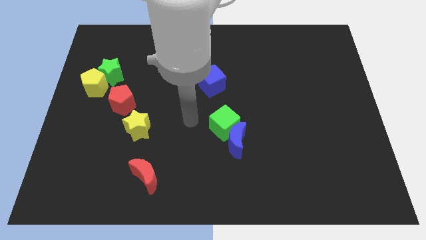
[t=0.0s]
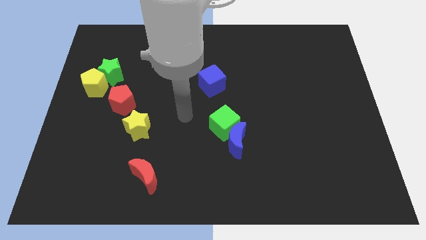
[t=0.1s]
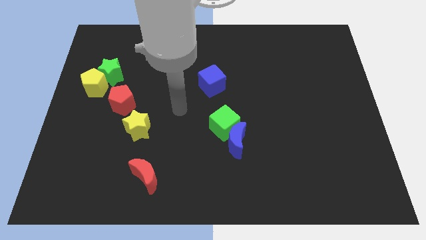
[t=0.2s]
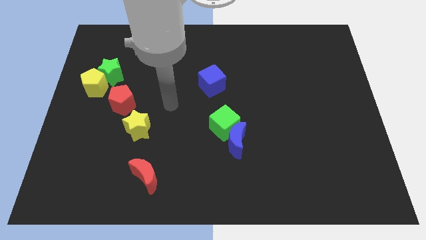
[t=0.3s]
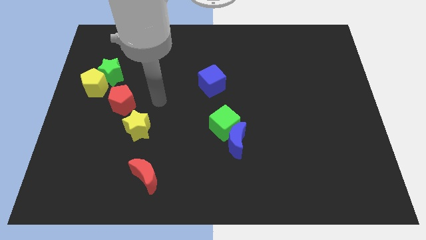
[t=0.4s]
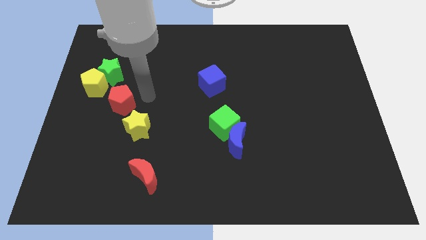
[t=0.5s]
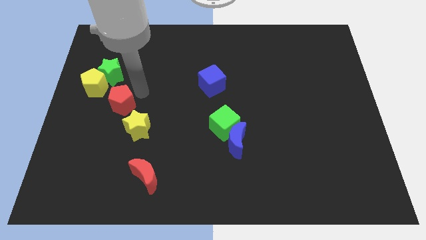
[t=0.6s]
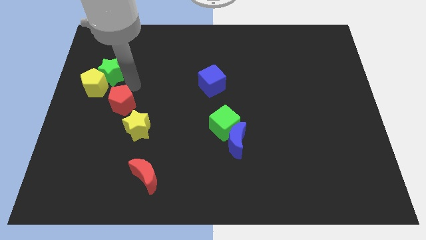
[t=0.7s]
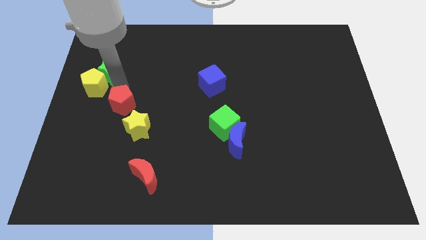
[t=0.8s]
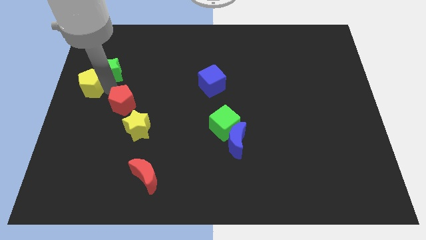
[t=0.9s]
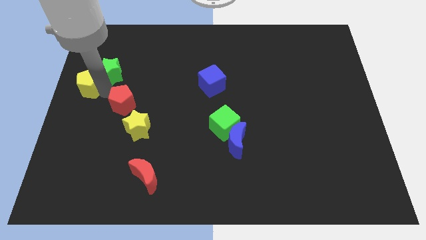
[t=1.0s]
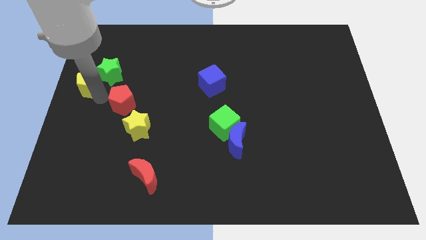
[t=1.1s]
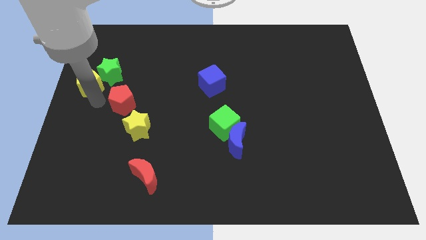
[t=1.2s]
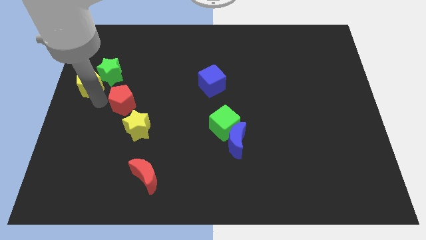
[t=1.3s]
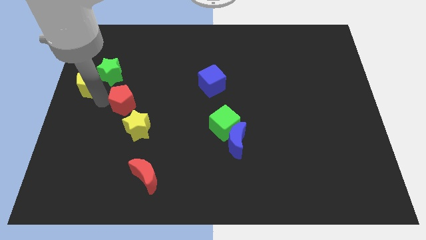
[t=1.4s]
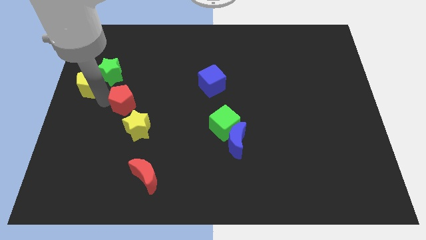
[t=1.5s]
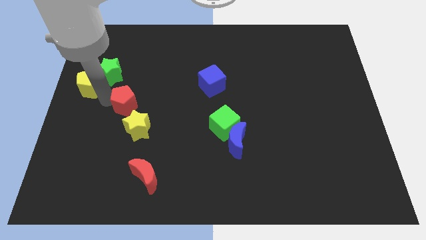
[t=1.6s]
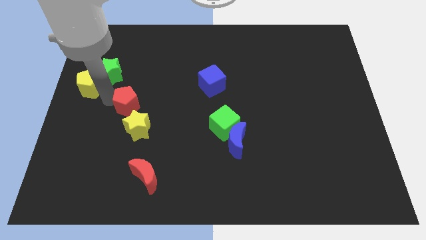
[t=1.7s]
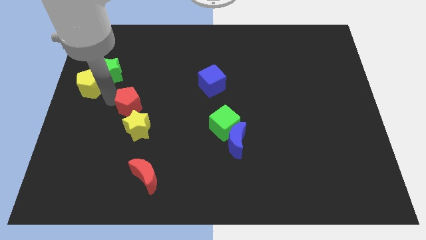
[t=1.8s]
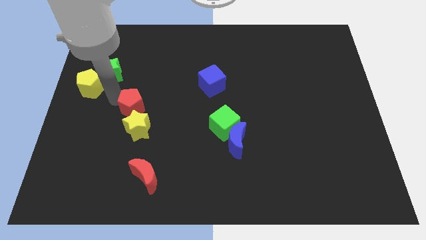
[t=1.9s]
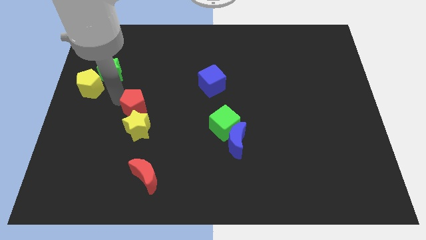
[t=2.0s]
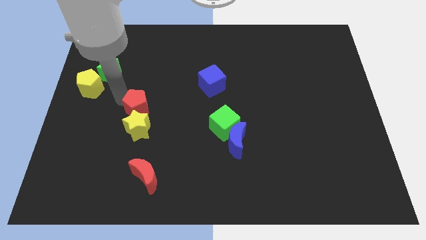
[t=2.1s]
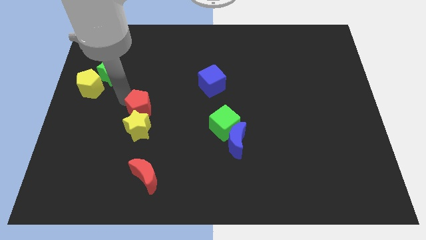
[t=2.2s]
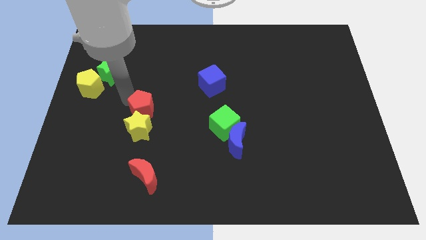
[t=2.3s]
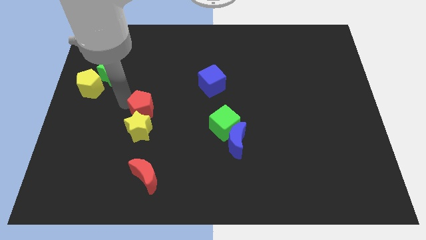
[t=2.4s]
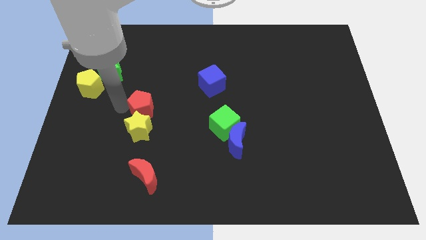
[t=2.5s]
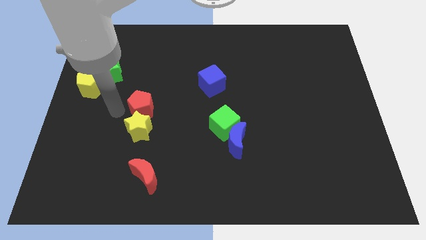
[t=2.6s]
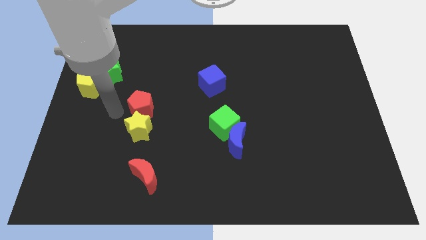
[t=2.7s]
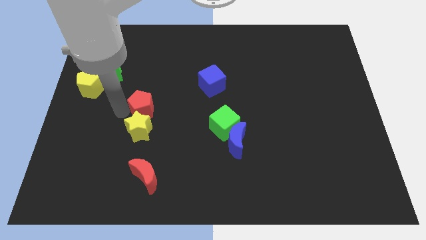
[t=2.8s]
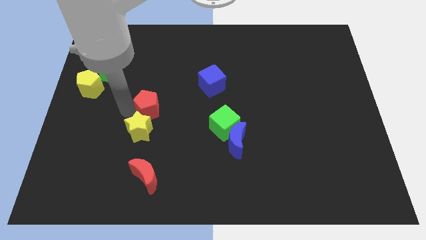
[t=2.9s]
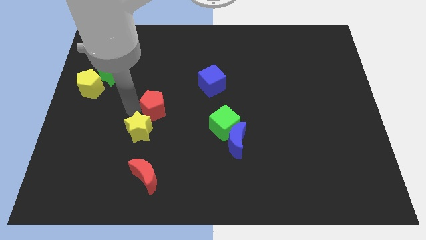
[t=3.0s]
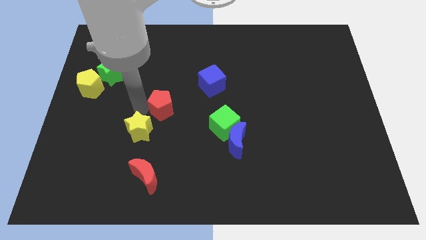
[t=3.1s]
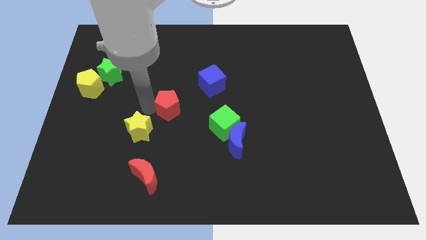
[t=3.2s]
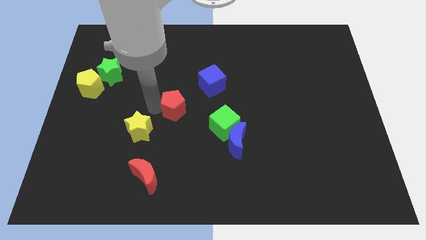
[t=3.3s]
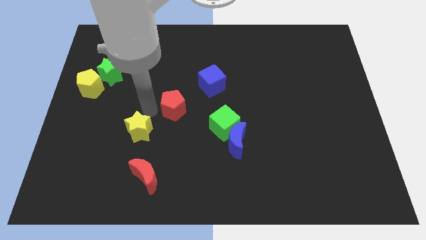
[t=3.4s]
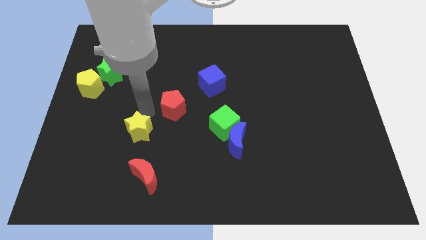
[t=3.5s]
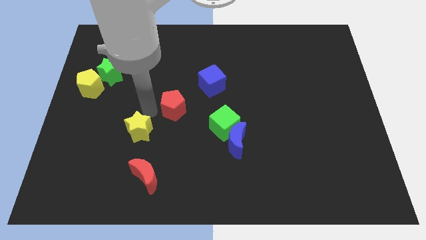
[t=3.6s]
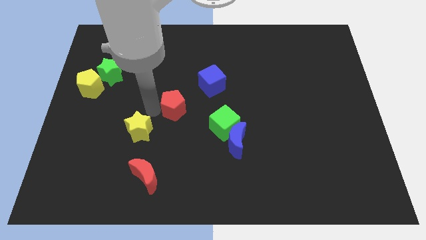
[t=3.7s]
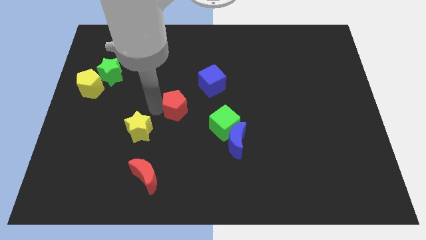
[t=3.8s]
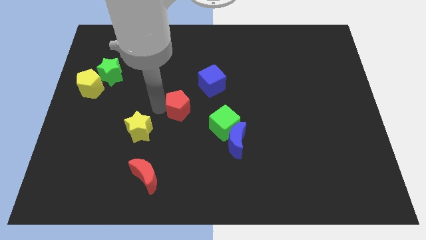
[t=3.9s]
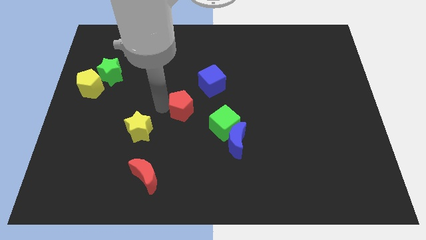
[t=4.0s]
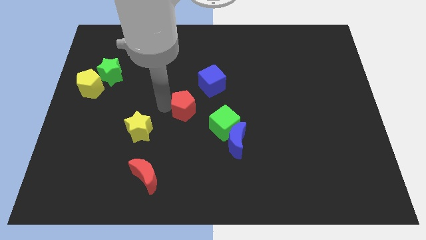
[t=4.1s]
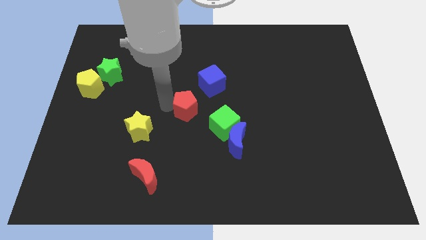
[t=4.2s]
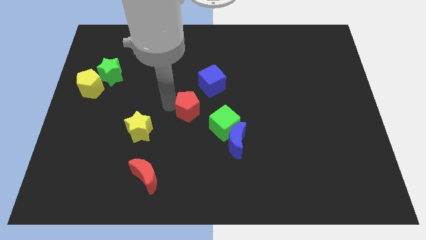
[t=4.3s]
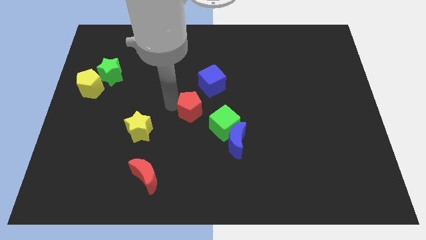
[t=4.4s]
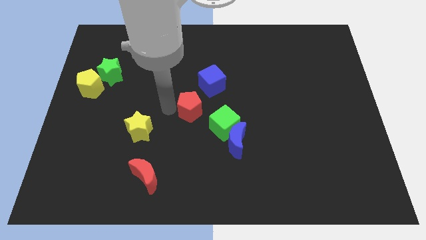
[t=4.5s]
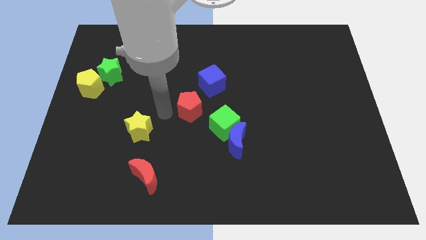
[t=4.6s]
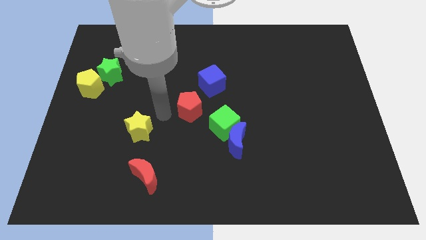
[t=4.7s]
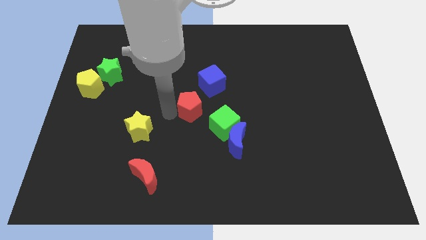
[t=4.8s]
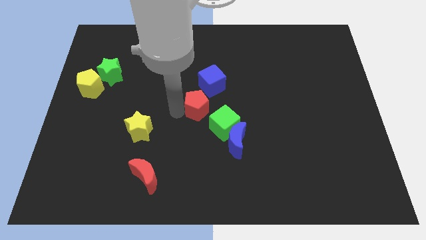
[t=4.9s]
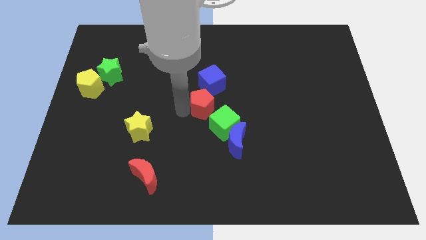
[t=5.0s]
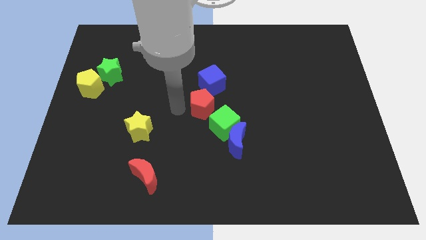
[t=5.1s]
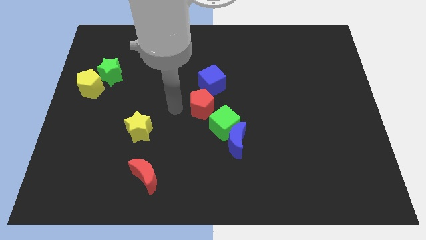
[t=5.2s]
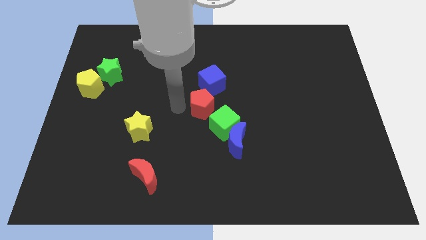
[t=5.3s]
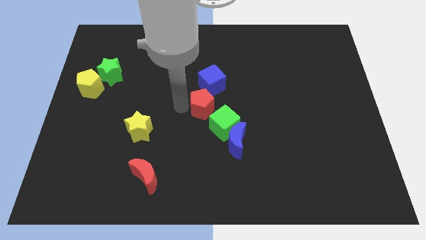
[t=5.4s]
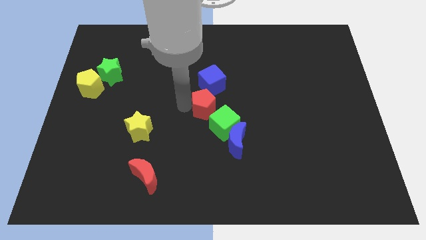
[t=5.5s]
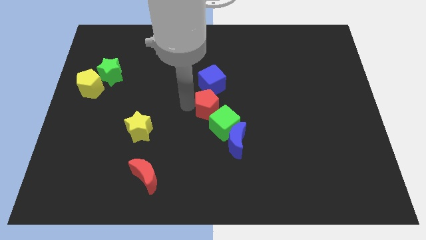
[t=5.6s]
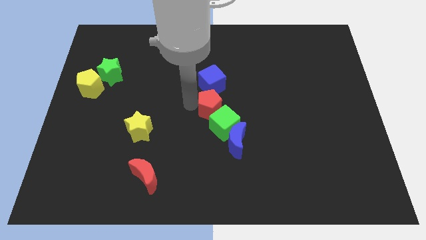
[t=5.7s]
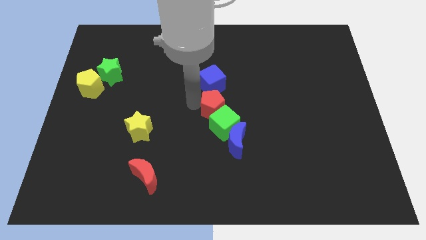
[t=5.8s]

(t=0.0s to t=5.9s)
put the red pentagon above the blue moon

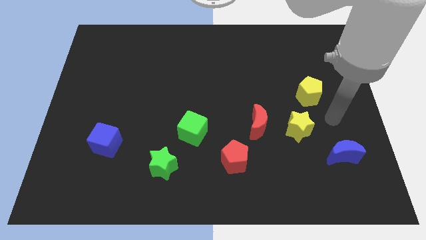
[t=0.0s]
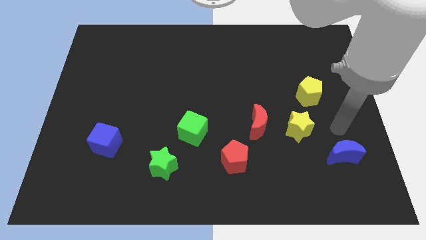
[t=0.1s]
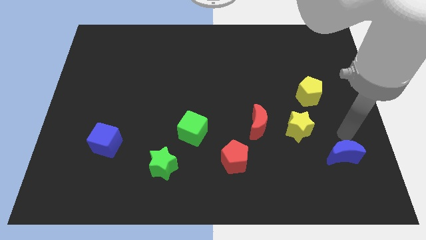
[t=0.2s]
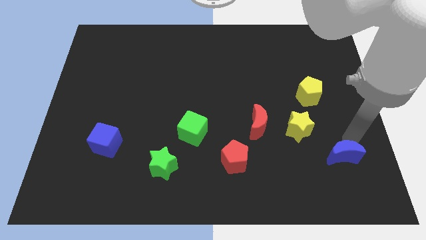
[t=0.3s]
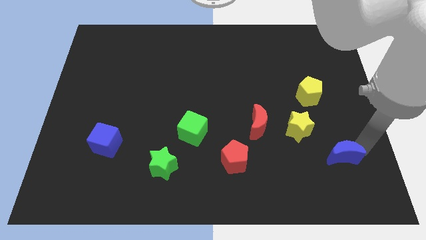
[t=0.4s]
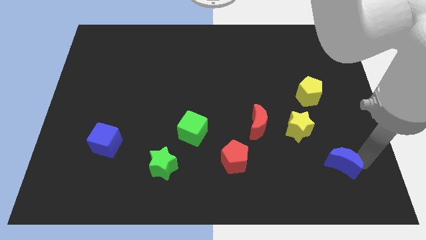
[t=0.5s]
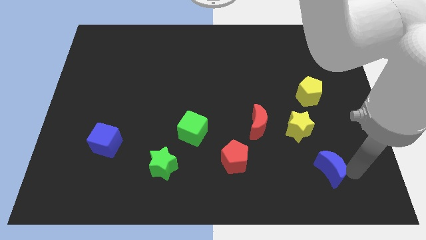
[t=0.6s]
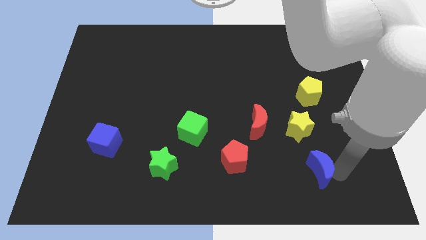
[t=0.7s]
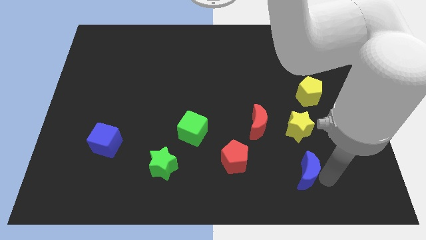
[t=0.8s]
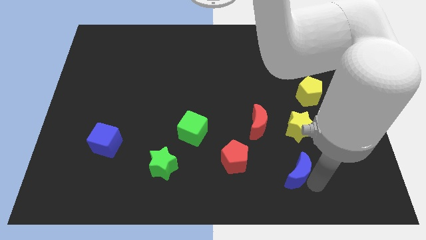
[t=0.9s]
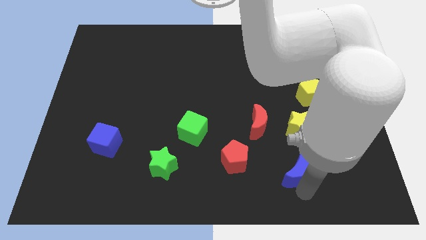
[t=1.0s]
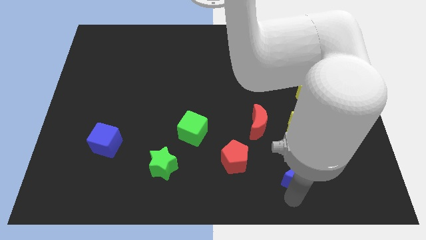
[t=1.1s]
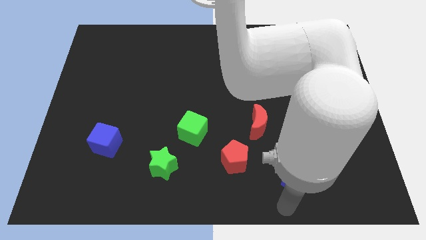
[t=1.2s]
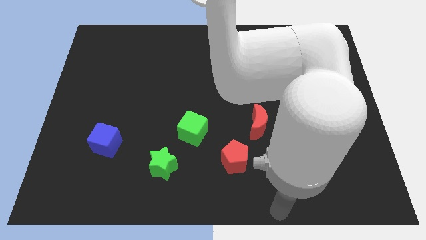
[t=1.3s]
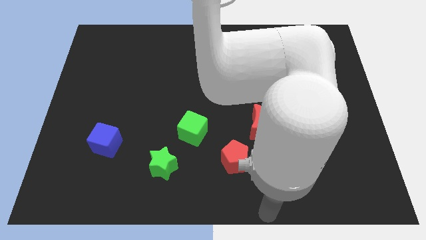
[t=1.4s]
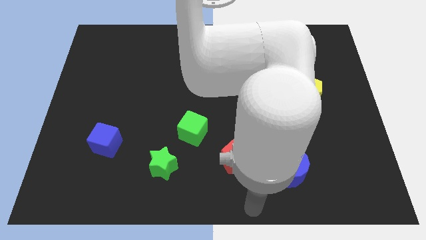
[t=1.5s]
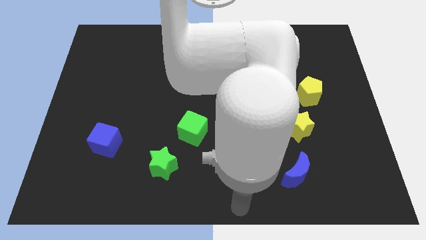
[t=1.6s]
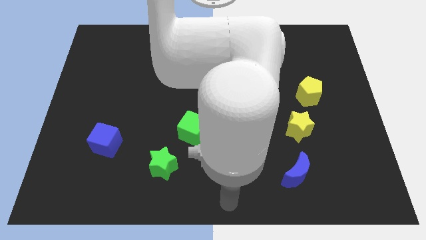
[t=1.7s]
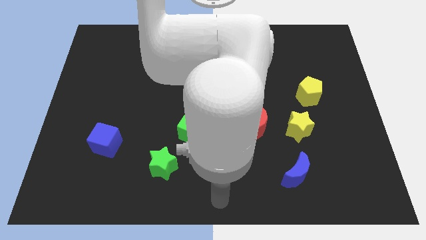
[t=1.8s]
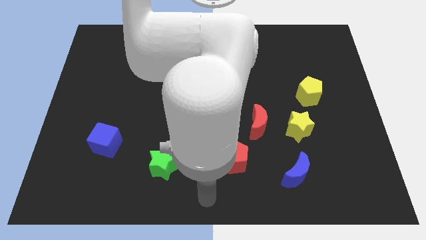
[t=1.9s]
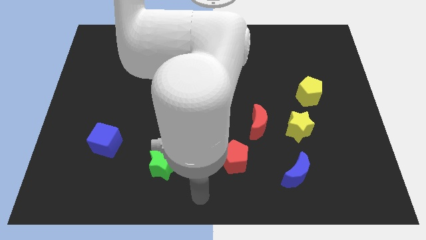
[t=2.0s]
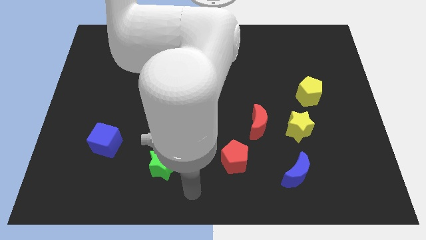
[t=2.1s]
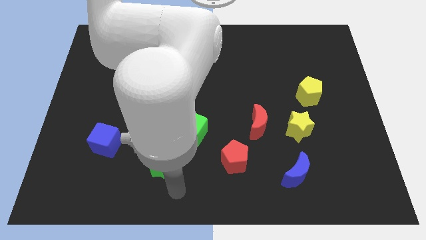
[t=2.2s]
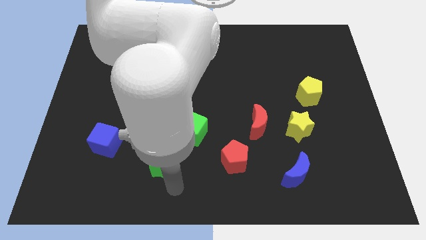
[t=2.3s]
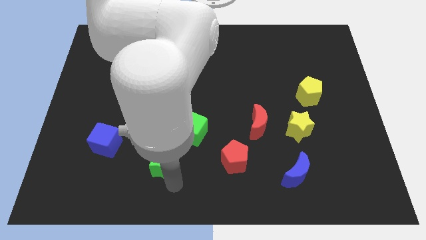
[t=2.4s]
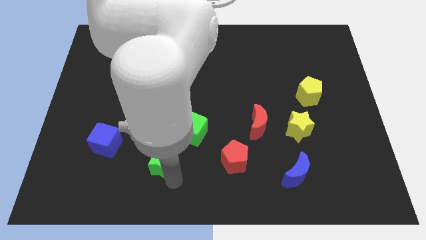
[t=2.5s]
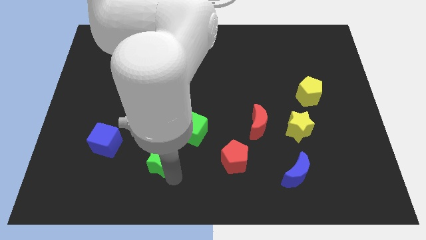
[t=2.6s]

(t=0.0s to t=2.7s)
slide the green star to the right of the blue cube
